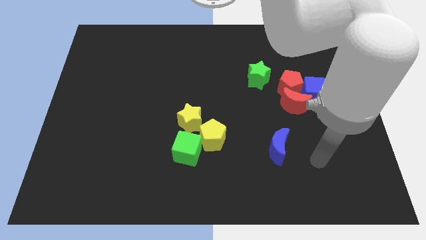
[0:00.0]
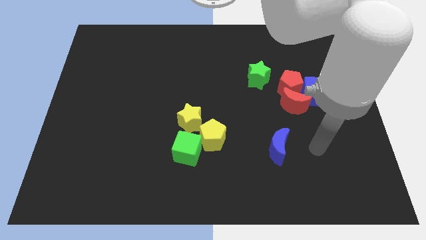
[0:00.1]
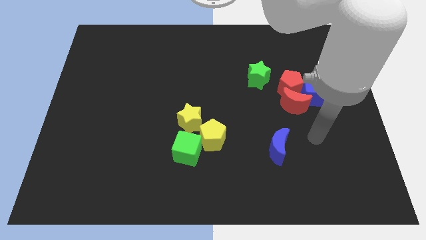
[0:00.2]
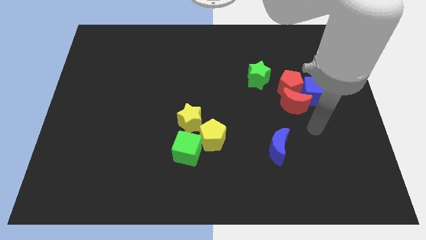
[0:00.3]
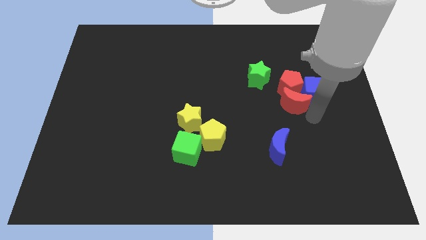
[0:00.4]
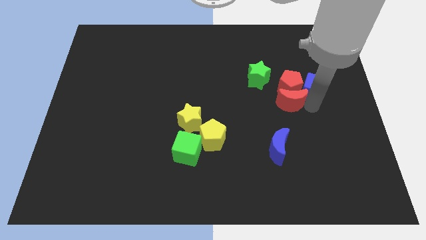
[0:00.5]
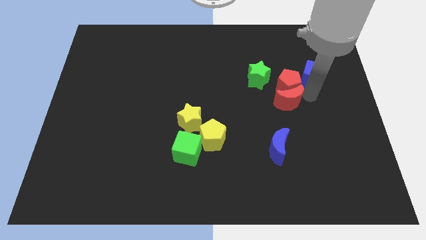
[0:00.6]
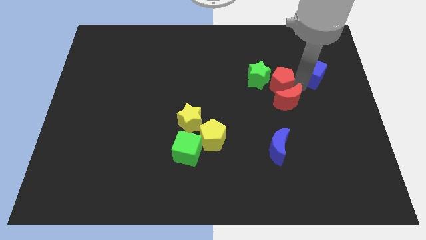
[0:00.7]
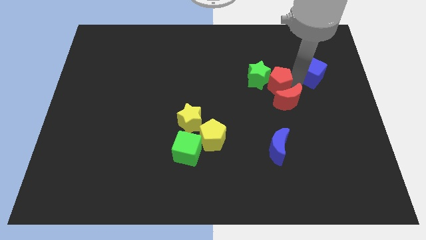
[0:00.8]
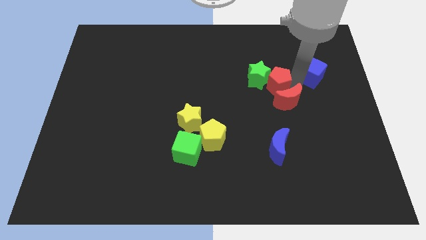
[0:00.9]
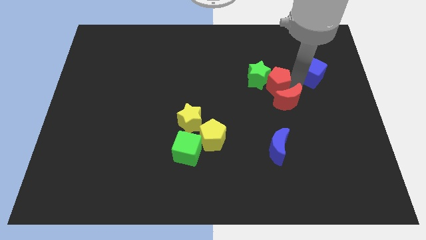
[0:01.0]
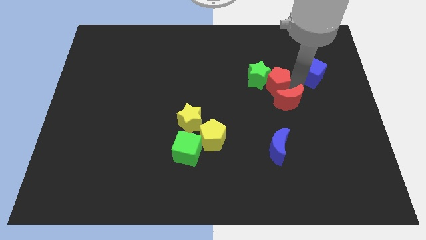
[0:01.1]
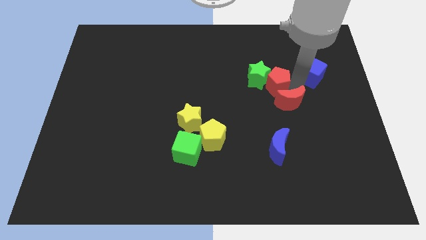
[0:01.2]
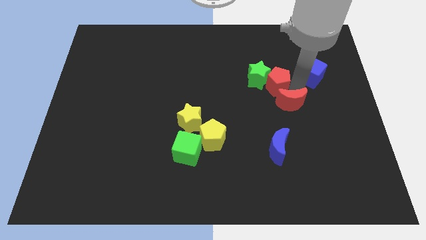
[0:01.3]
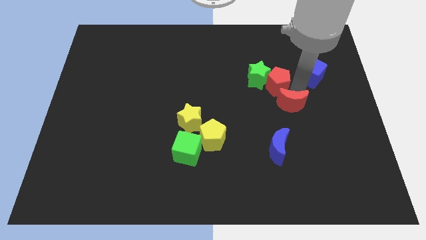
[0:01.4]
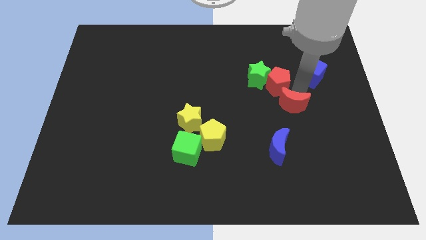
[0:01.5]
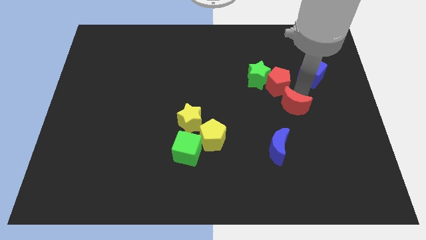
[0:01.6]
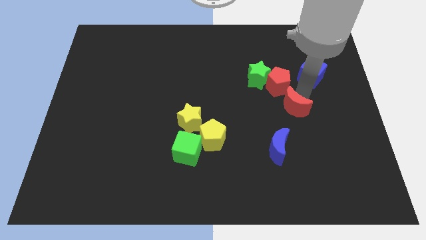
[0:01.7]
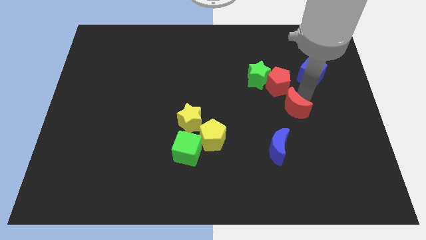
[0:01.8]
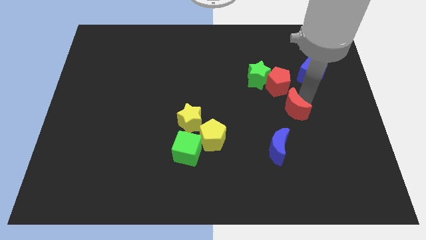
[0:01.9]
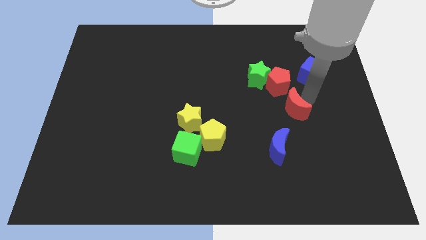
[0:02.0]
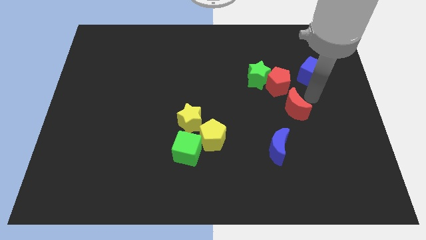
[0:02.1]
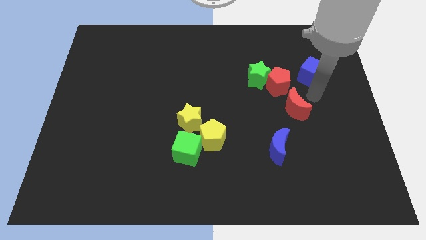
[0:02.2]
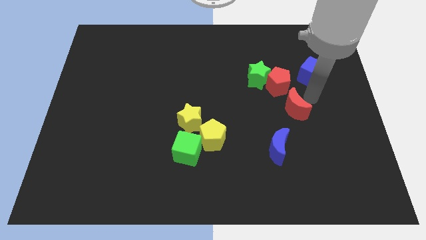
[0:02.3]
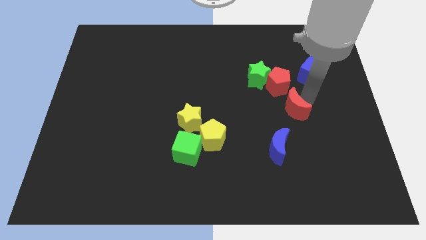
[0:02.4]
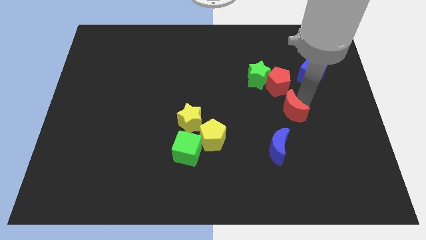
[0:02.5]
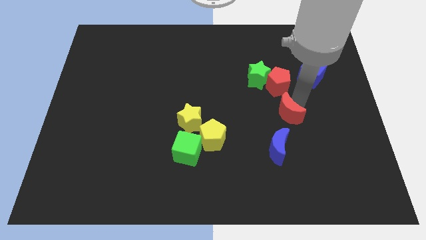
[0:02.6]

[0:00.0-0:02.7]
separate the red moon from the red pentagon and blue cube

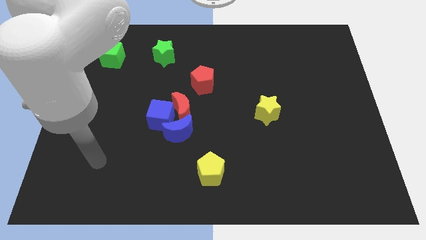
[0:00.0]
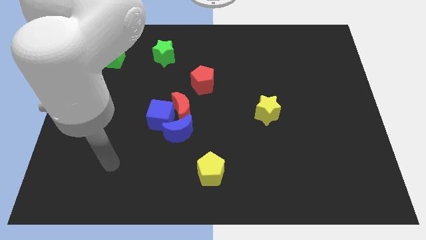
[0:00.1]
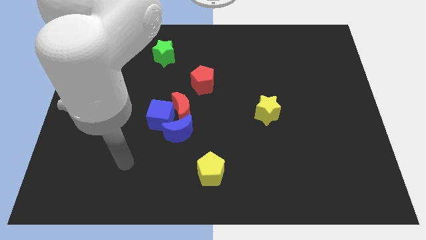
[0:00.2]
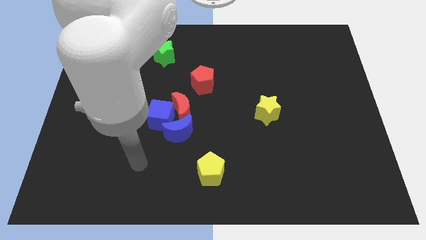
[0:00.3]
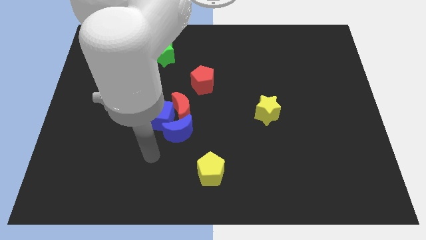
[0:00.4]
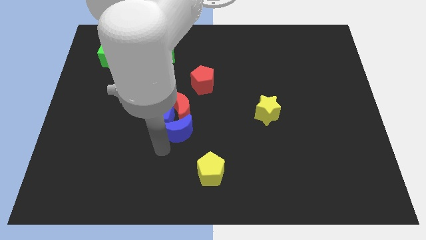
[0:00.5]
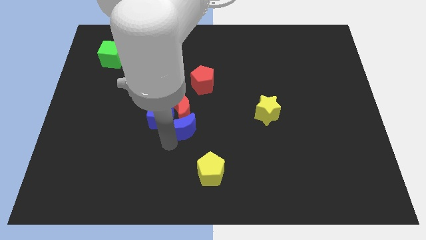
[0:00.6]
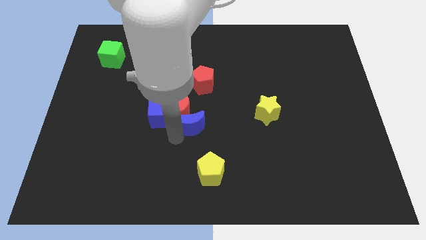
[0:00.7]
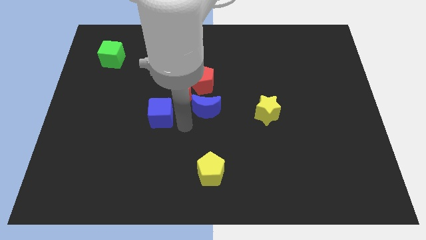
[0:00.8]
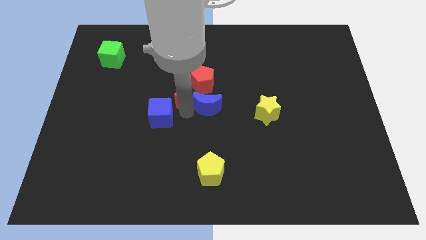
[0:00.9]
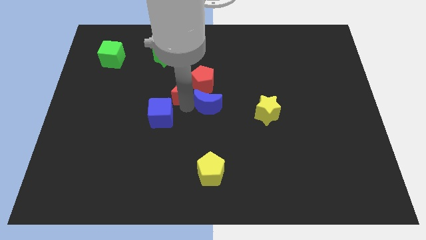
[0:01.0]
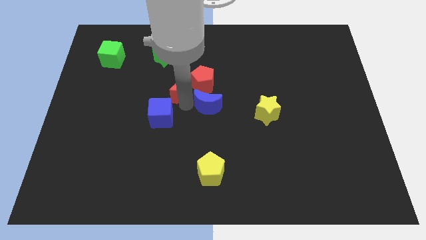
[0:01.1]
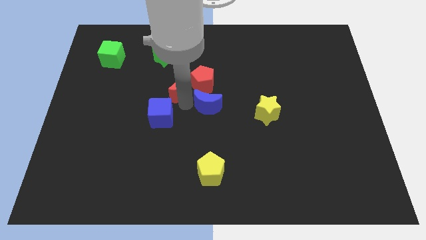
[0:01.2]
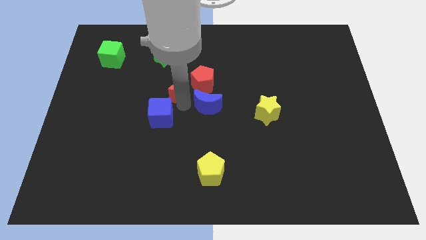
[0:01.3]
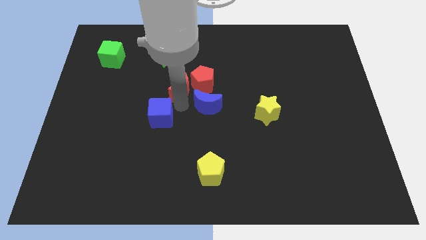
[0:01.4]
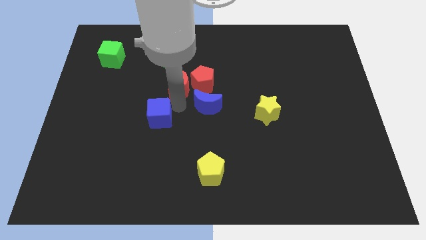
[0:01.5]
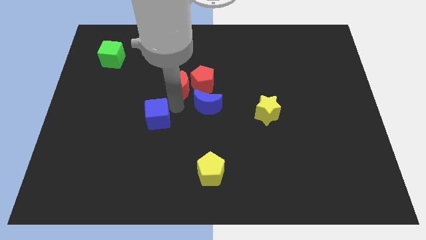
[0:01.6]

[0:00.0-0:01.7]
separate the blue cube from the red moon and blue moon

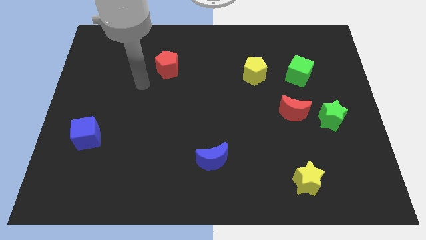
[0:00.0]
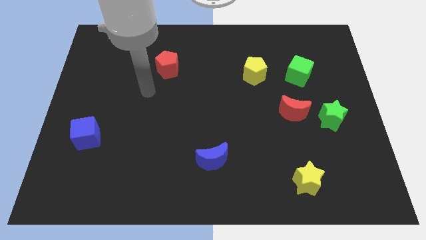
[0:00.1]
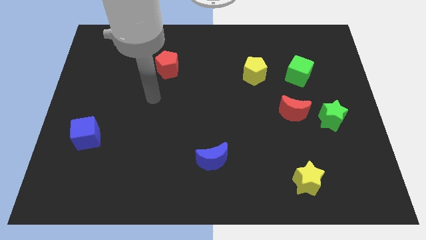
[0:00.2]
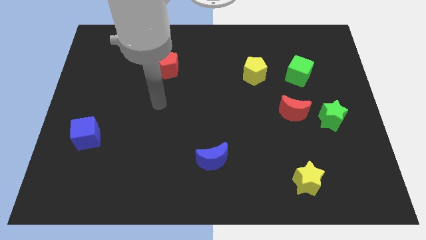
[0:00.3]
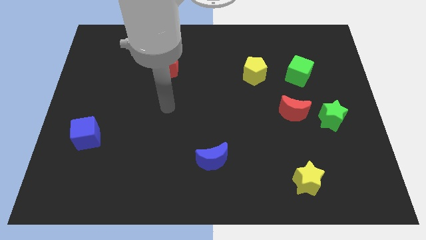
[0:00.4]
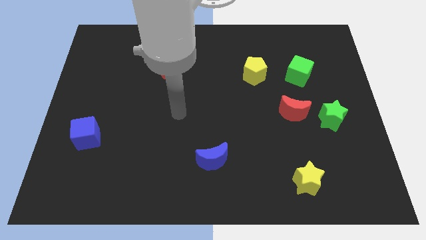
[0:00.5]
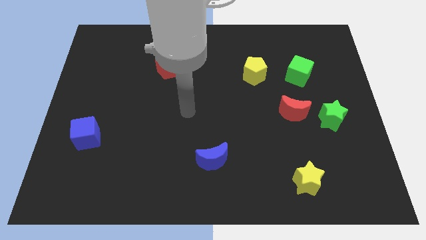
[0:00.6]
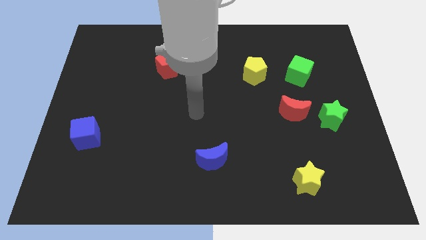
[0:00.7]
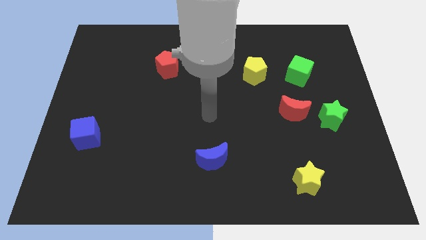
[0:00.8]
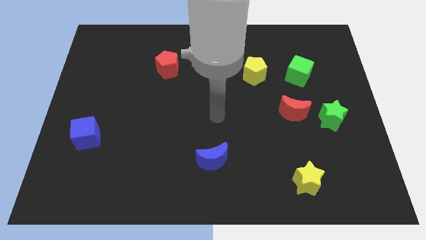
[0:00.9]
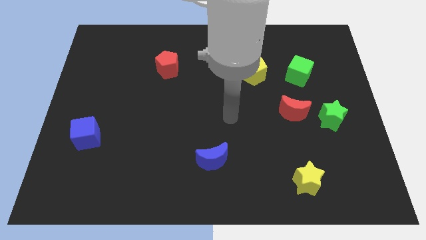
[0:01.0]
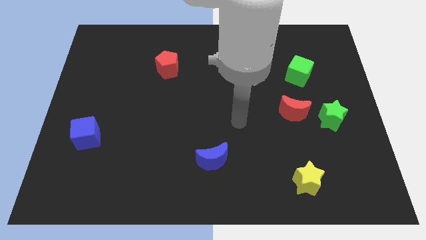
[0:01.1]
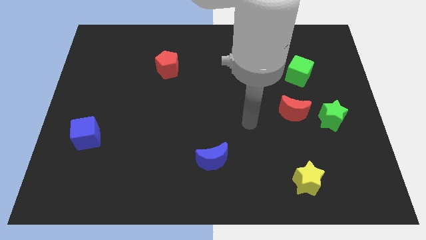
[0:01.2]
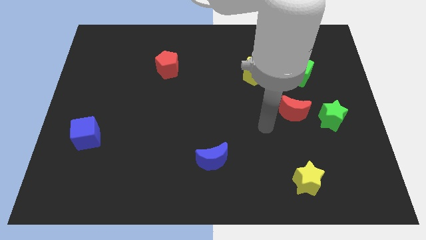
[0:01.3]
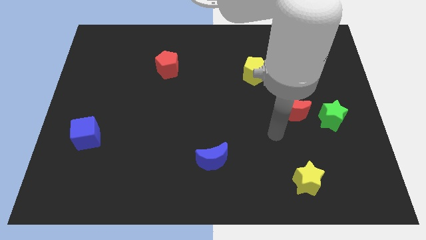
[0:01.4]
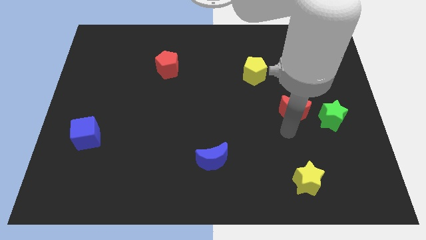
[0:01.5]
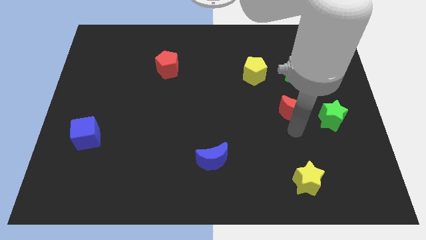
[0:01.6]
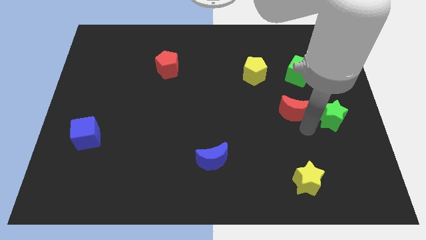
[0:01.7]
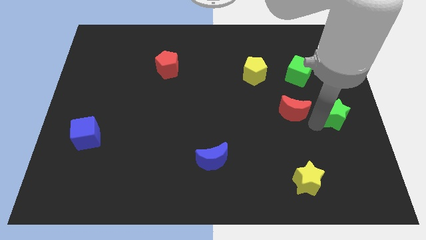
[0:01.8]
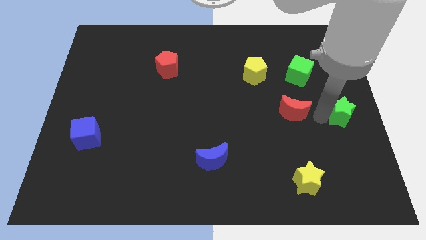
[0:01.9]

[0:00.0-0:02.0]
pull the red moon apart from the green star

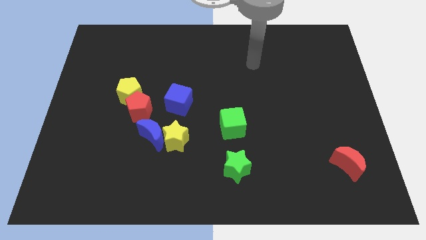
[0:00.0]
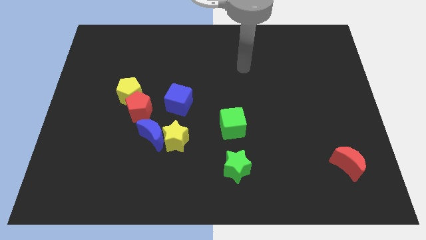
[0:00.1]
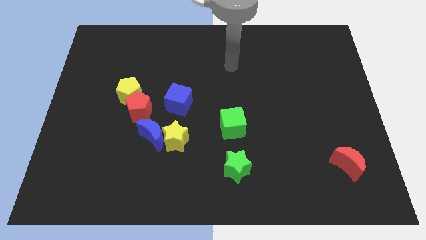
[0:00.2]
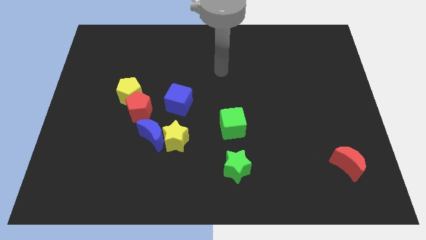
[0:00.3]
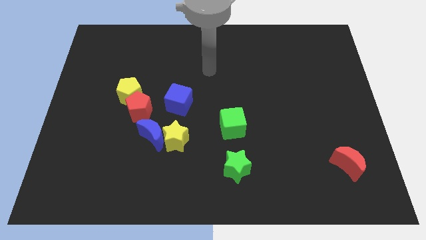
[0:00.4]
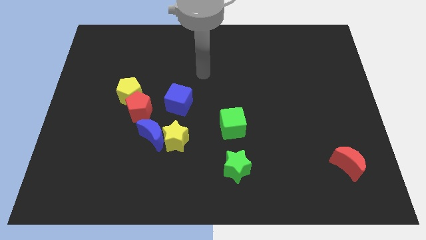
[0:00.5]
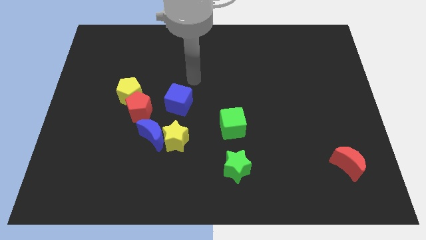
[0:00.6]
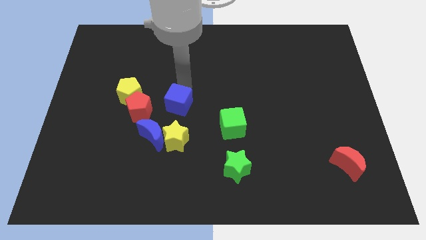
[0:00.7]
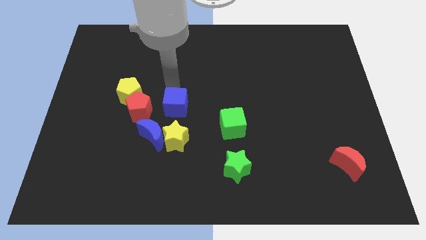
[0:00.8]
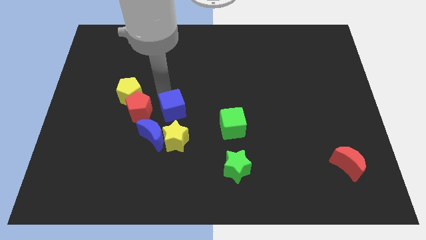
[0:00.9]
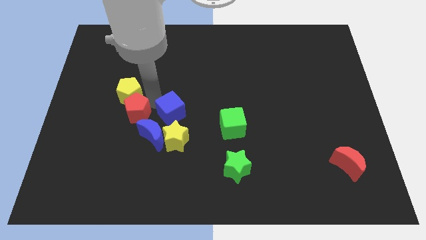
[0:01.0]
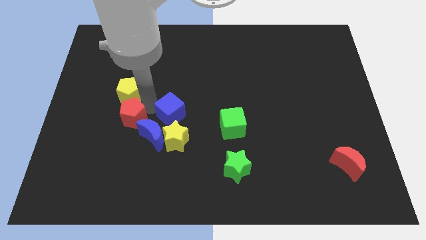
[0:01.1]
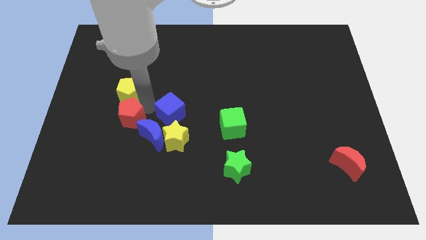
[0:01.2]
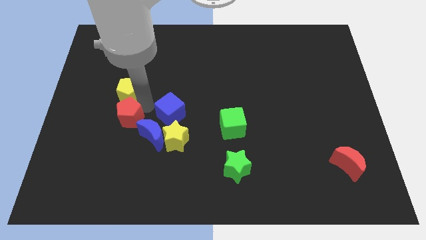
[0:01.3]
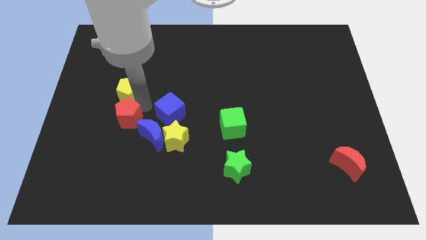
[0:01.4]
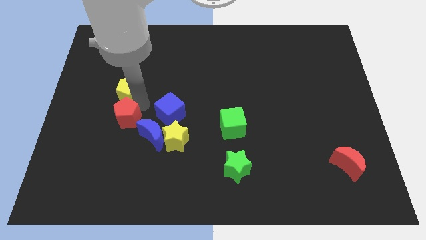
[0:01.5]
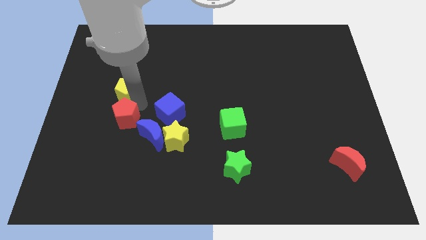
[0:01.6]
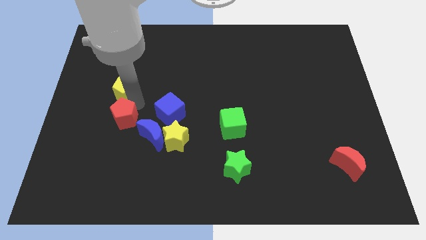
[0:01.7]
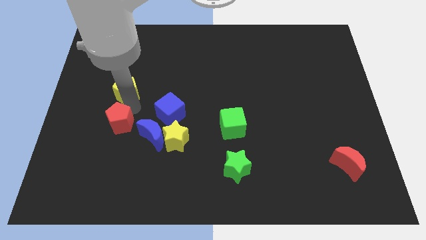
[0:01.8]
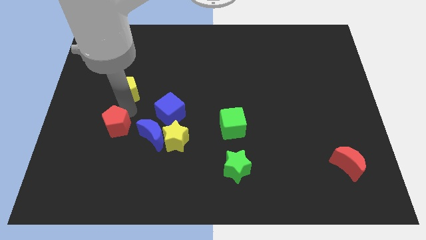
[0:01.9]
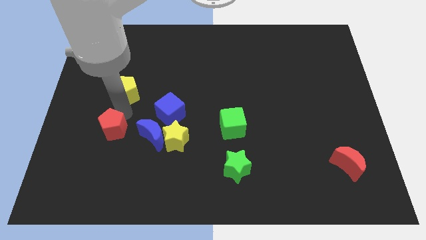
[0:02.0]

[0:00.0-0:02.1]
separate the yellow pentagon from the red pentagon

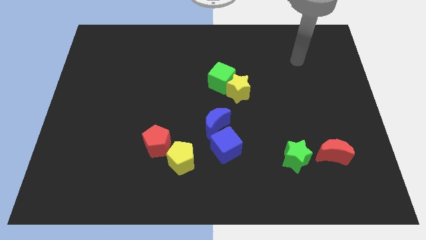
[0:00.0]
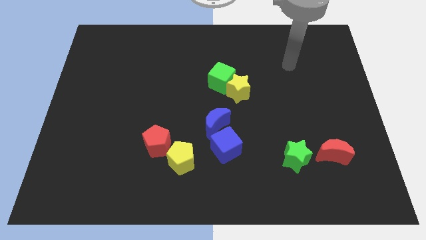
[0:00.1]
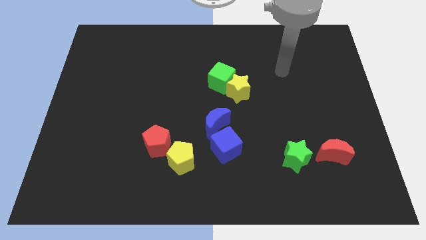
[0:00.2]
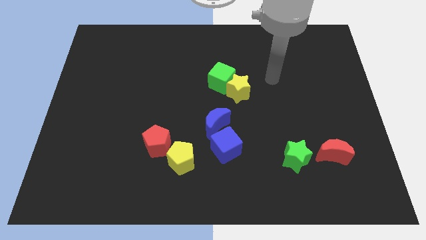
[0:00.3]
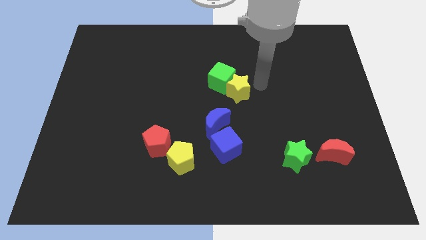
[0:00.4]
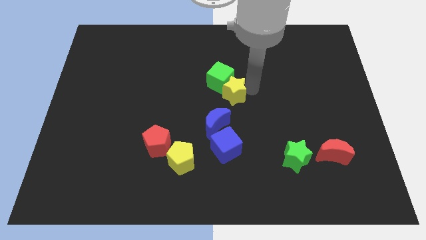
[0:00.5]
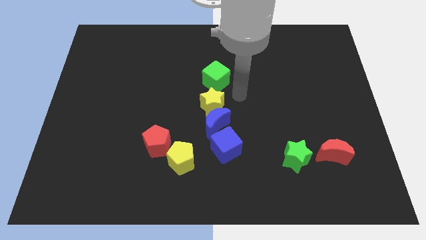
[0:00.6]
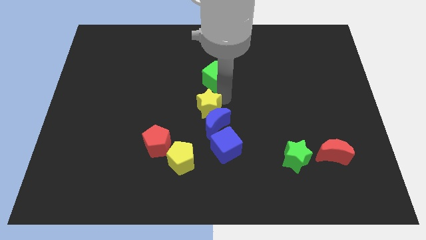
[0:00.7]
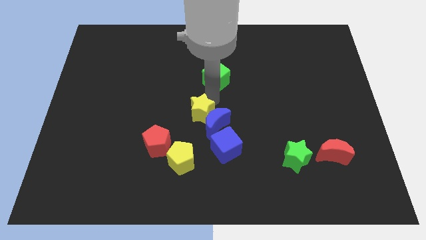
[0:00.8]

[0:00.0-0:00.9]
move the green cube away from the yellow star
